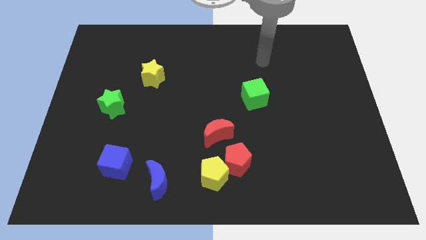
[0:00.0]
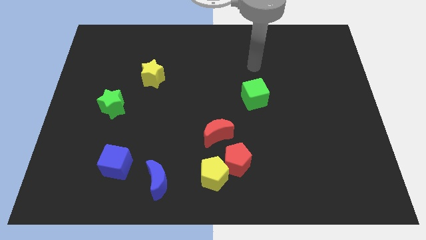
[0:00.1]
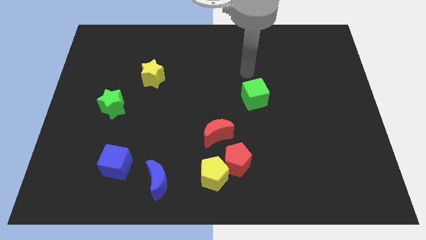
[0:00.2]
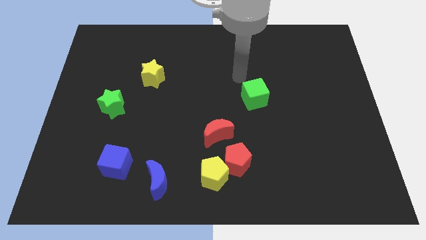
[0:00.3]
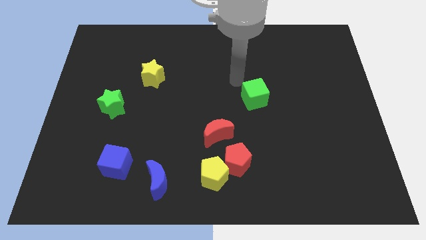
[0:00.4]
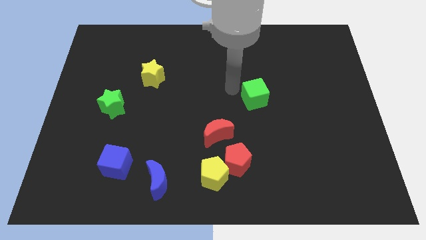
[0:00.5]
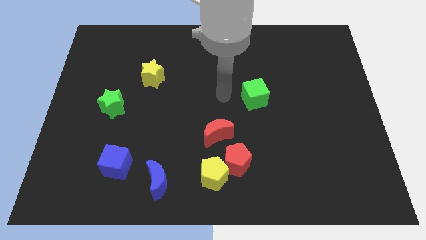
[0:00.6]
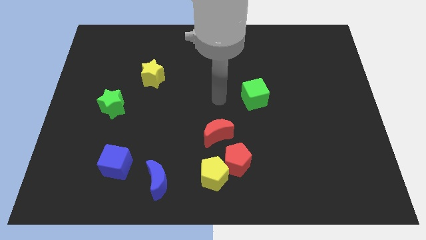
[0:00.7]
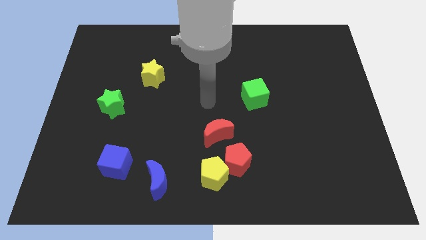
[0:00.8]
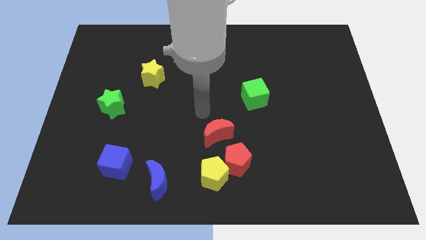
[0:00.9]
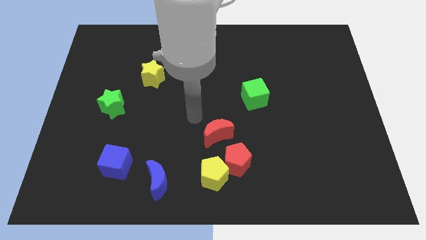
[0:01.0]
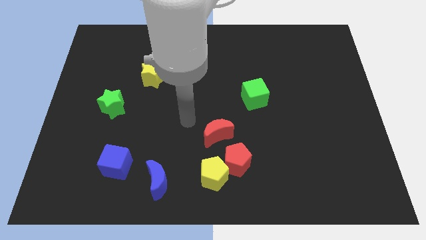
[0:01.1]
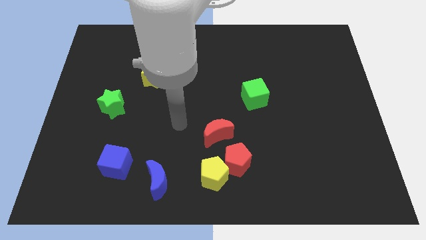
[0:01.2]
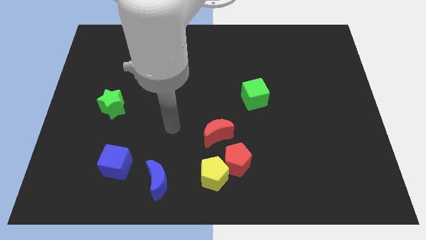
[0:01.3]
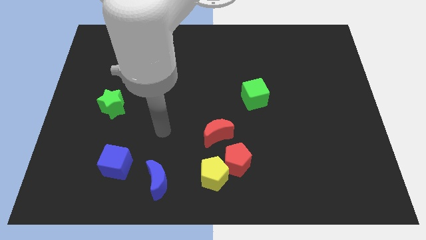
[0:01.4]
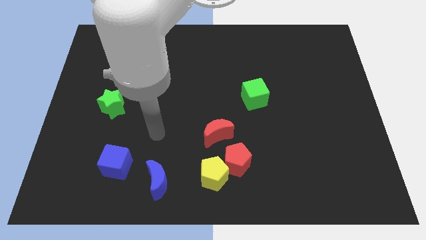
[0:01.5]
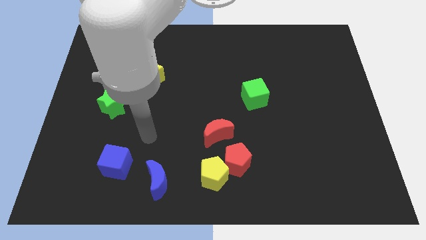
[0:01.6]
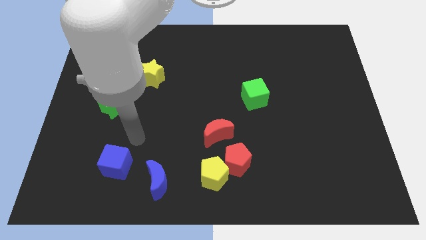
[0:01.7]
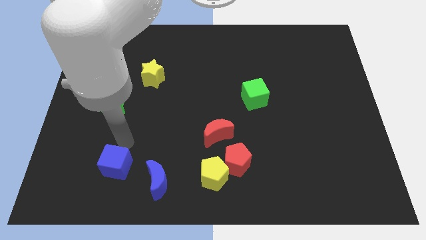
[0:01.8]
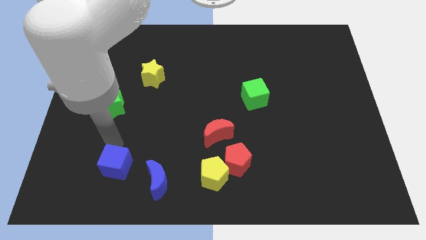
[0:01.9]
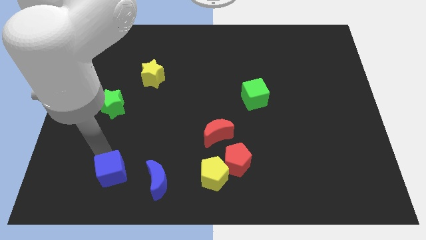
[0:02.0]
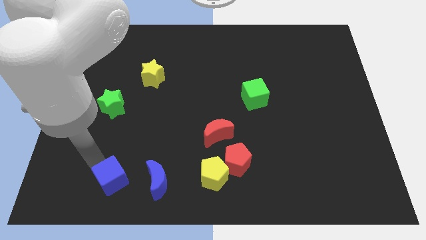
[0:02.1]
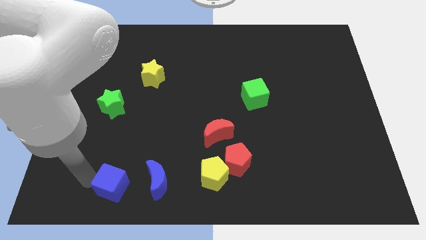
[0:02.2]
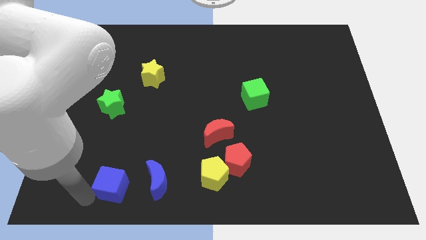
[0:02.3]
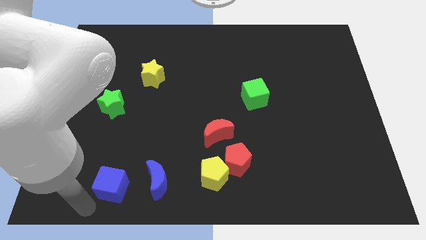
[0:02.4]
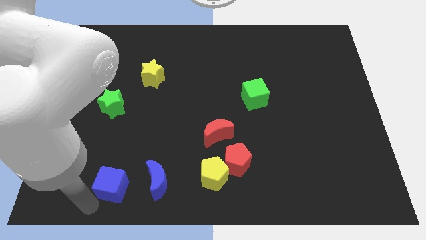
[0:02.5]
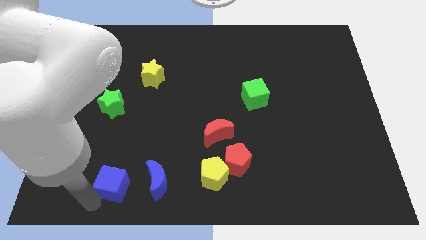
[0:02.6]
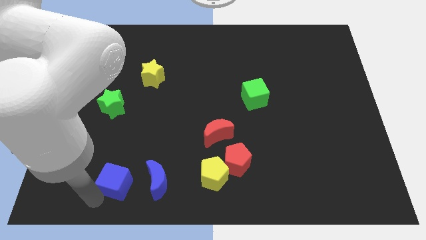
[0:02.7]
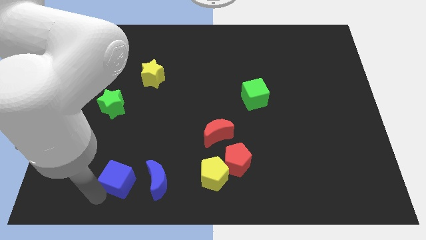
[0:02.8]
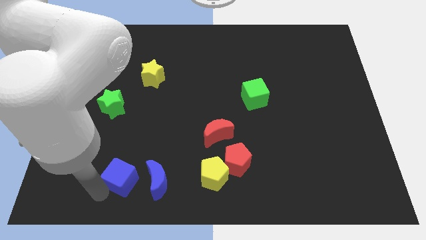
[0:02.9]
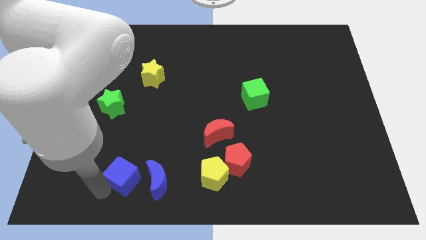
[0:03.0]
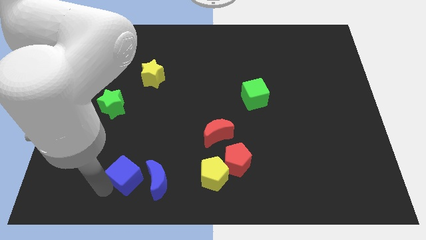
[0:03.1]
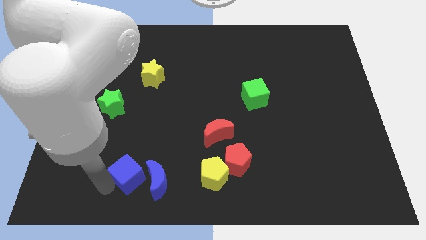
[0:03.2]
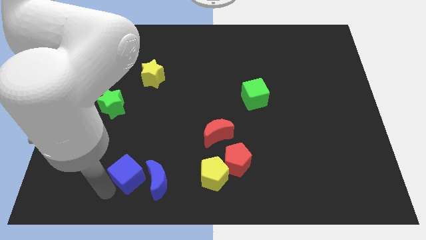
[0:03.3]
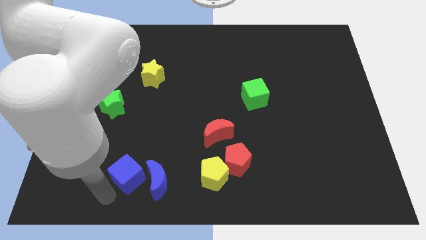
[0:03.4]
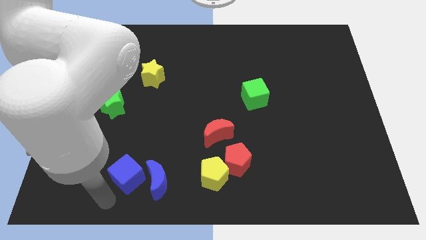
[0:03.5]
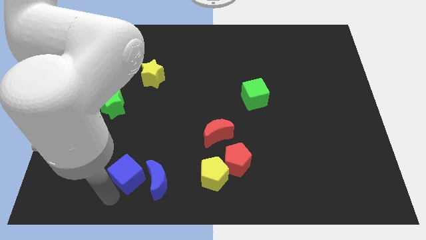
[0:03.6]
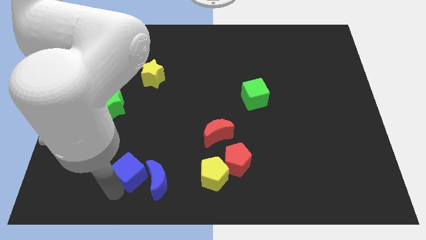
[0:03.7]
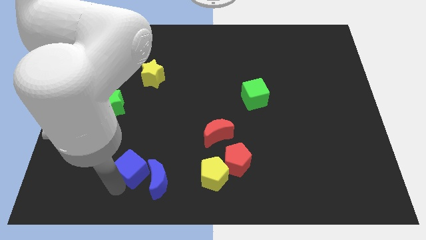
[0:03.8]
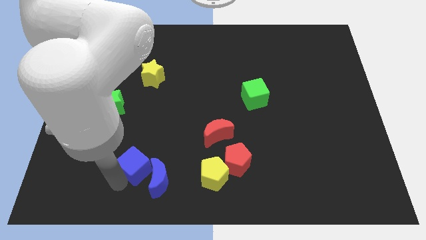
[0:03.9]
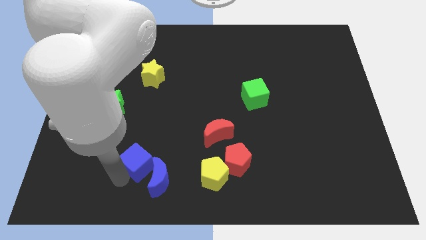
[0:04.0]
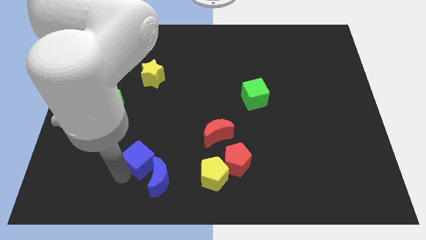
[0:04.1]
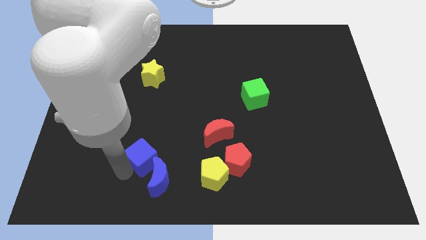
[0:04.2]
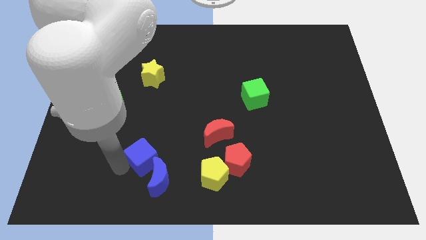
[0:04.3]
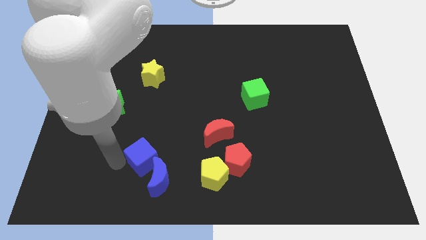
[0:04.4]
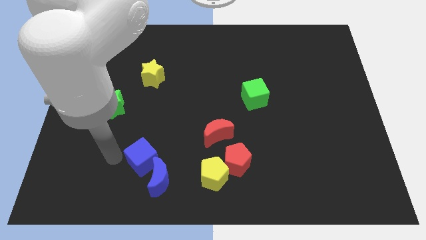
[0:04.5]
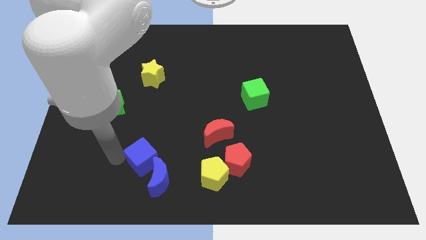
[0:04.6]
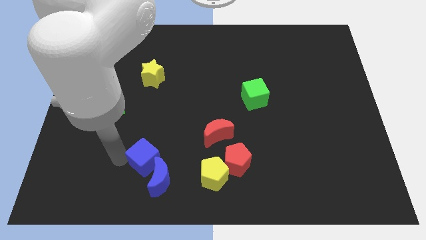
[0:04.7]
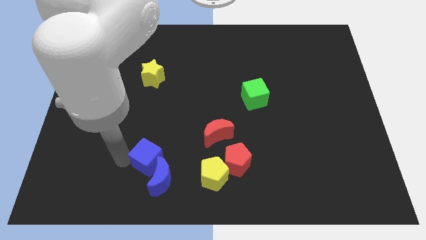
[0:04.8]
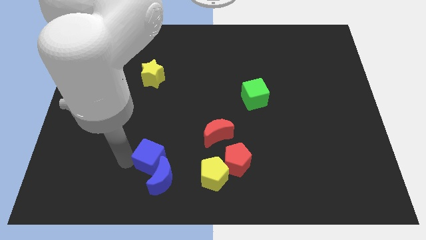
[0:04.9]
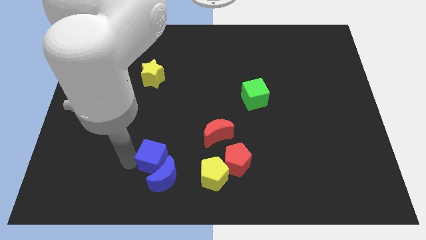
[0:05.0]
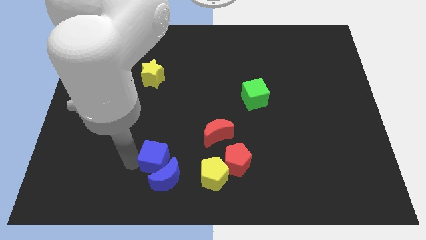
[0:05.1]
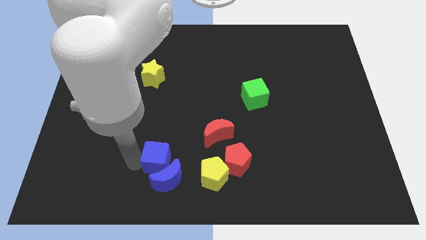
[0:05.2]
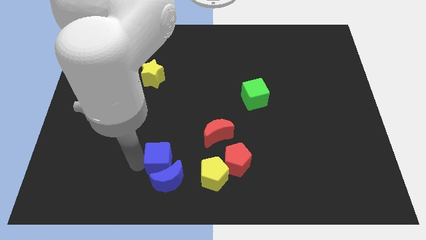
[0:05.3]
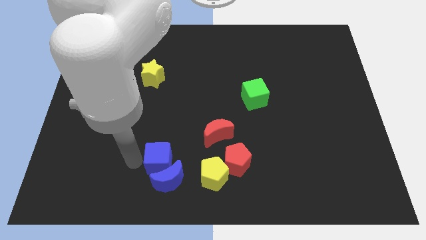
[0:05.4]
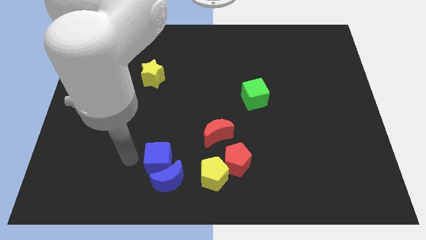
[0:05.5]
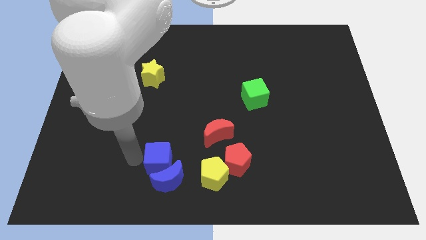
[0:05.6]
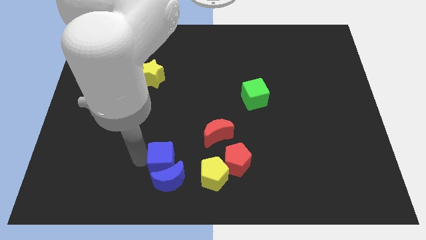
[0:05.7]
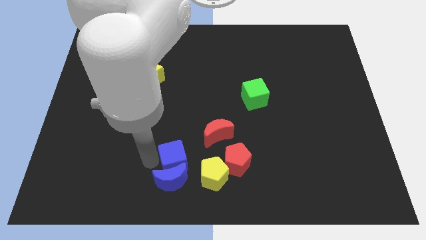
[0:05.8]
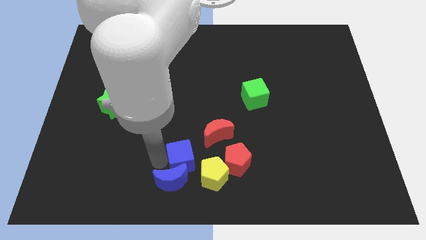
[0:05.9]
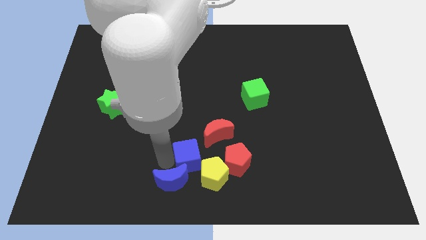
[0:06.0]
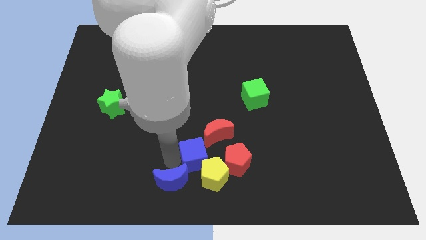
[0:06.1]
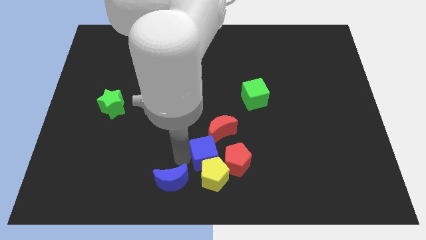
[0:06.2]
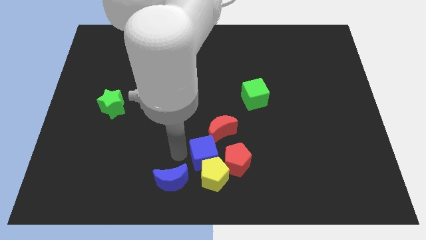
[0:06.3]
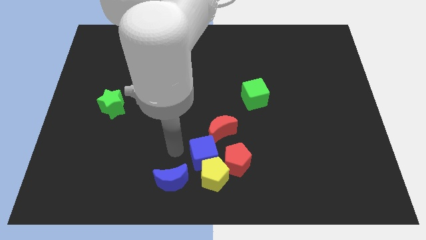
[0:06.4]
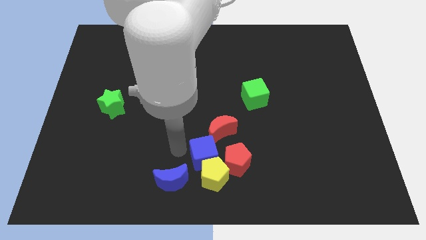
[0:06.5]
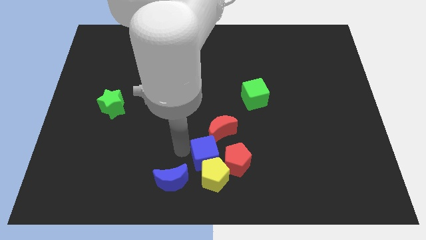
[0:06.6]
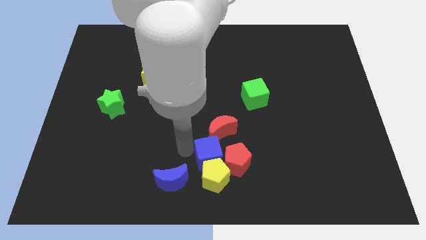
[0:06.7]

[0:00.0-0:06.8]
put the blue cube to the red pentagon
